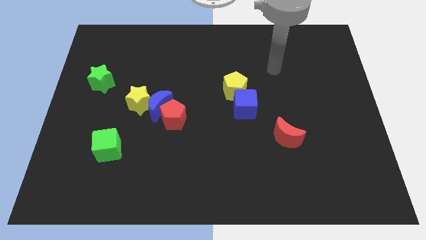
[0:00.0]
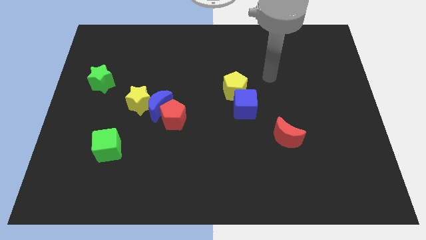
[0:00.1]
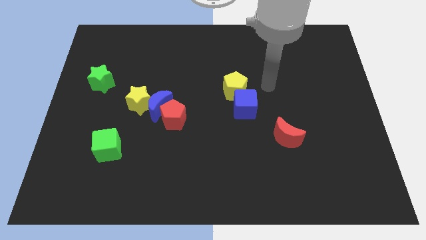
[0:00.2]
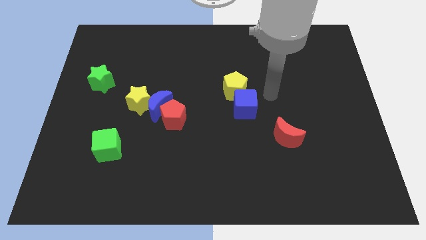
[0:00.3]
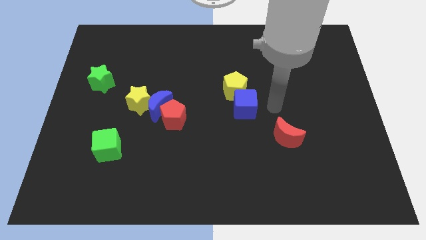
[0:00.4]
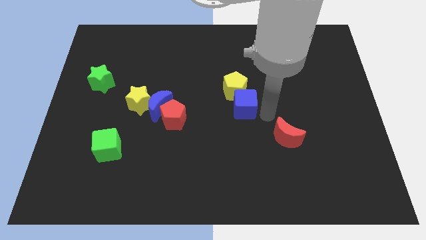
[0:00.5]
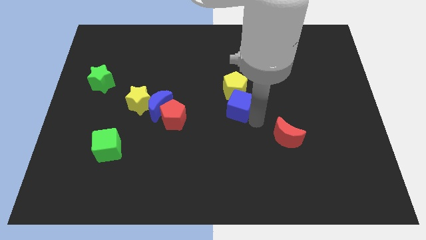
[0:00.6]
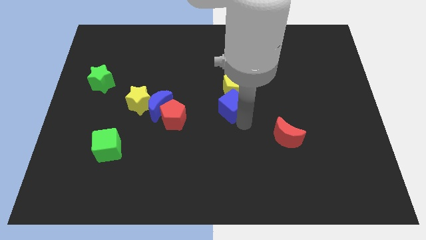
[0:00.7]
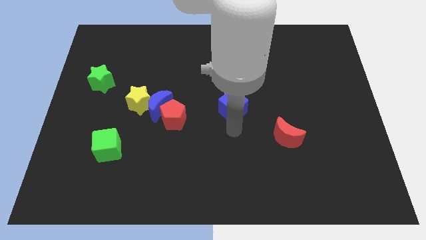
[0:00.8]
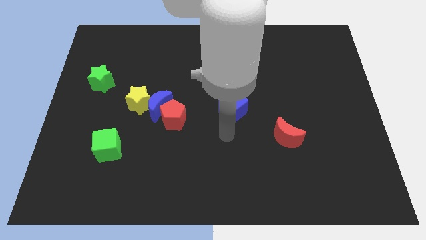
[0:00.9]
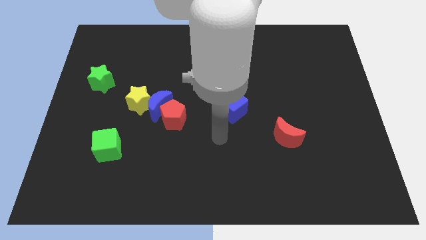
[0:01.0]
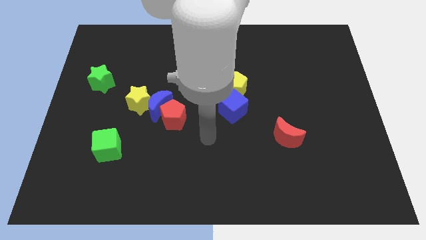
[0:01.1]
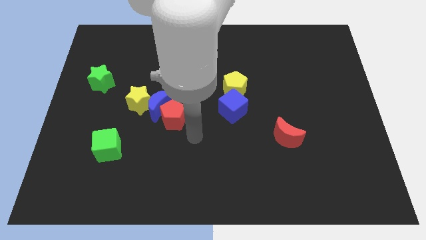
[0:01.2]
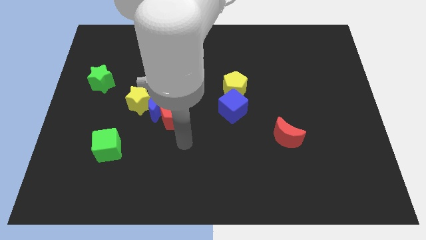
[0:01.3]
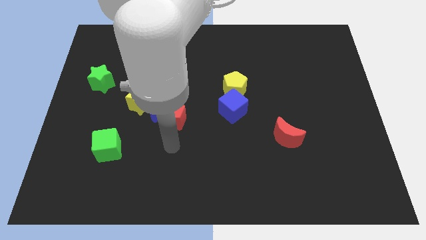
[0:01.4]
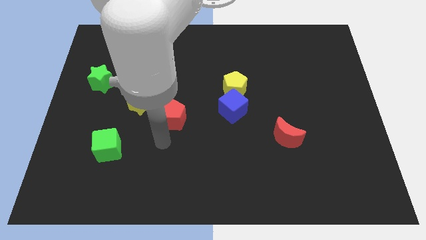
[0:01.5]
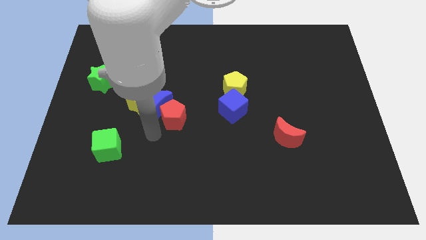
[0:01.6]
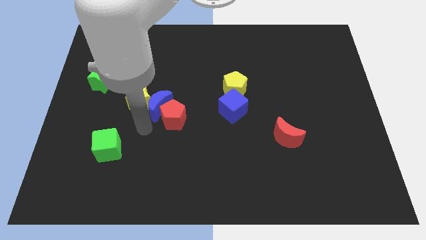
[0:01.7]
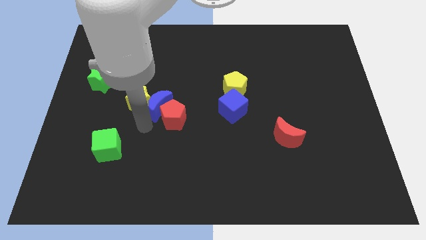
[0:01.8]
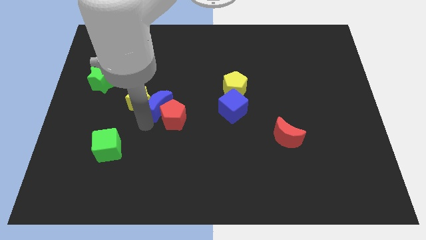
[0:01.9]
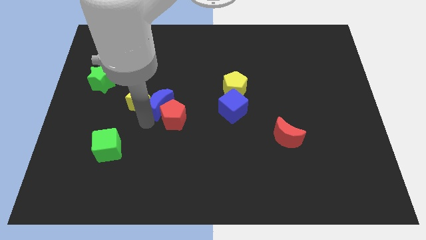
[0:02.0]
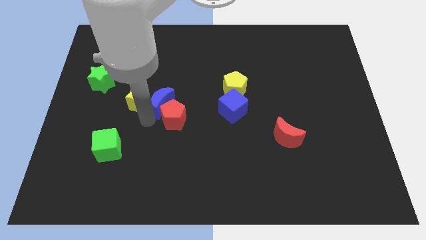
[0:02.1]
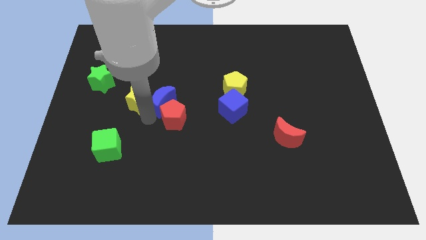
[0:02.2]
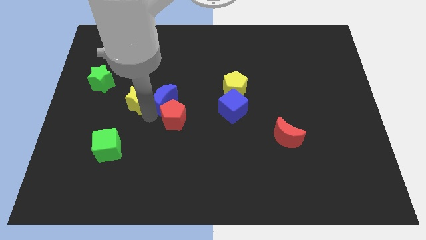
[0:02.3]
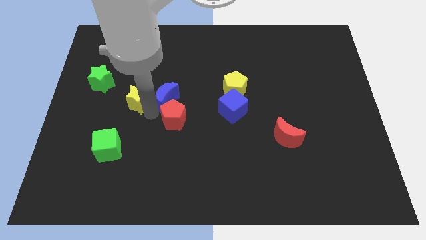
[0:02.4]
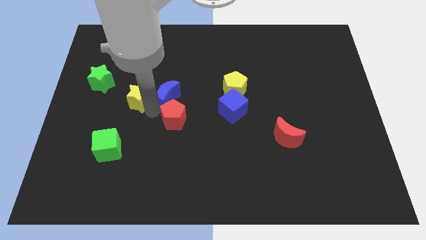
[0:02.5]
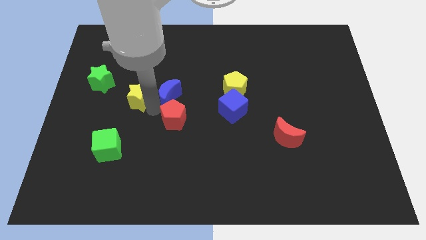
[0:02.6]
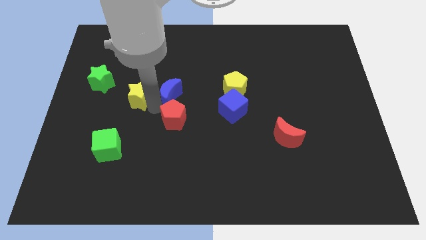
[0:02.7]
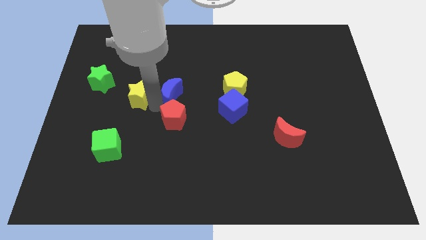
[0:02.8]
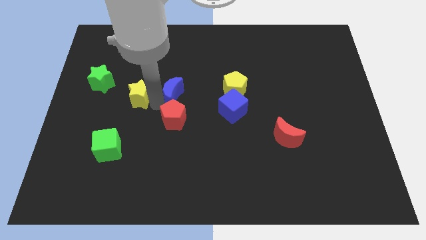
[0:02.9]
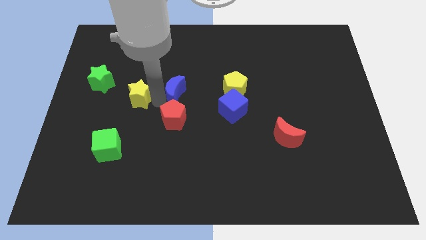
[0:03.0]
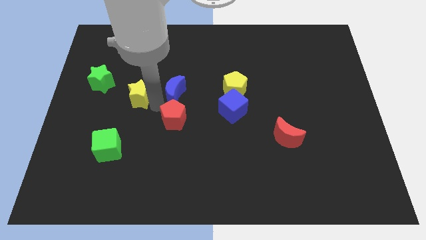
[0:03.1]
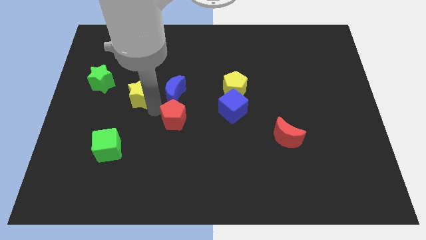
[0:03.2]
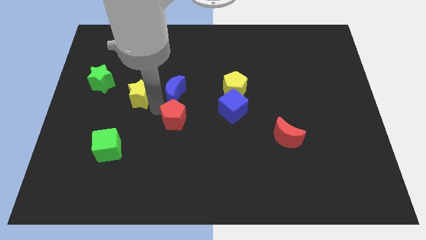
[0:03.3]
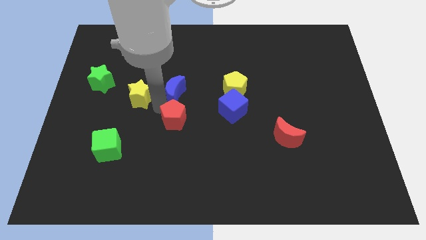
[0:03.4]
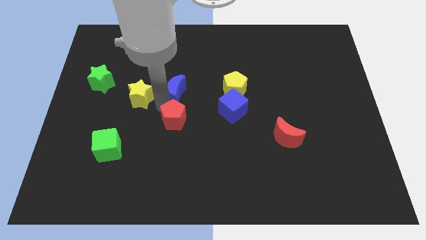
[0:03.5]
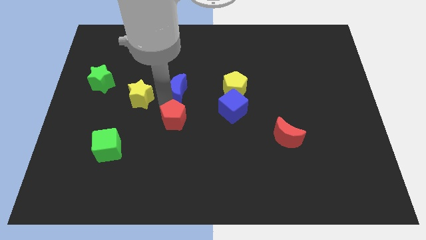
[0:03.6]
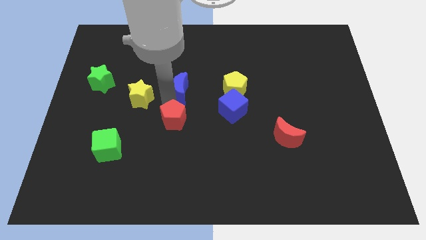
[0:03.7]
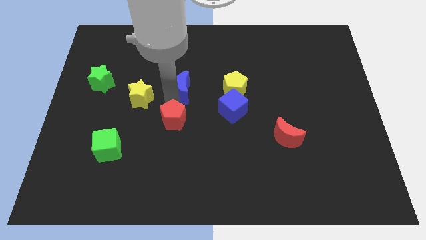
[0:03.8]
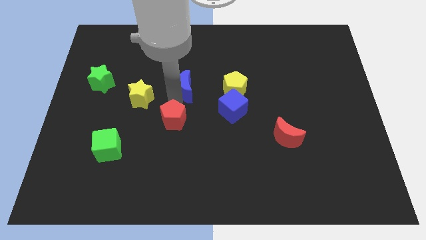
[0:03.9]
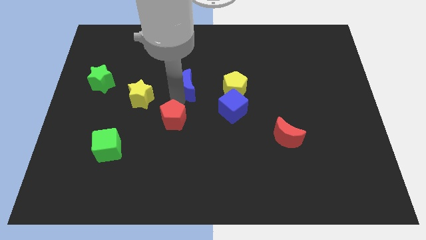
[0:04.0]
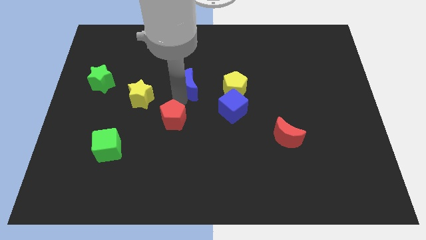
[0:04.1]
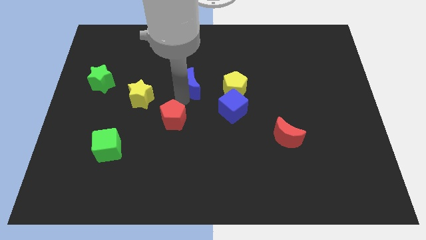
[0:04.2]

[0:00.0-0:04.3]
pull the blue moon apart from the red pentagon and yellow star

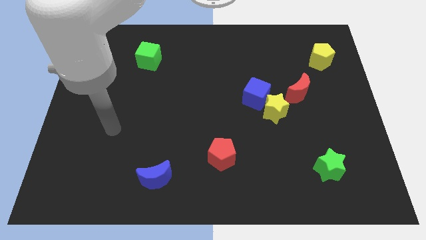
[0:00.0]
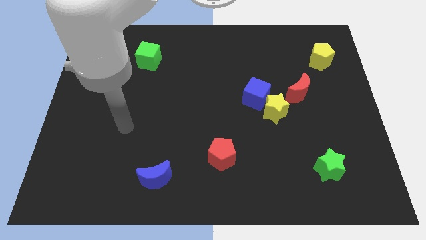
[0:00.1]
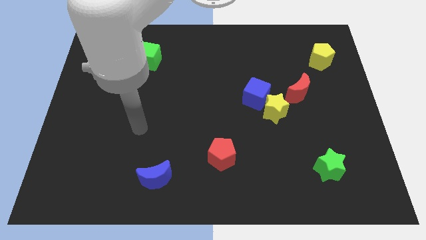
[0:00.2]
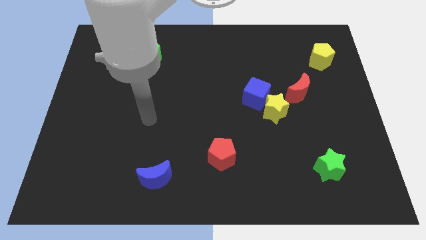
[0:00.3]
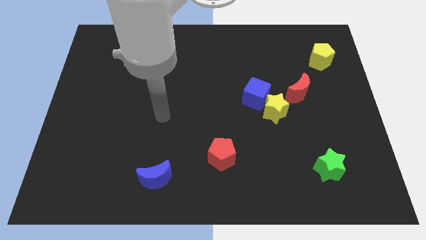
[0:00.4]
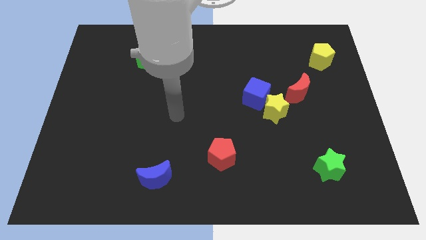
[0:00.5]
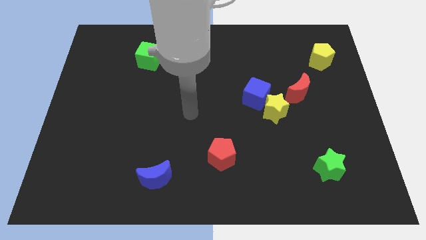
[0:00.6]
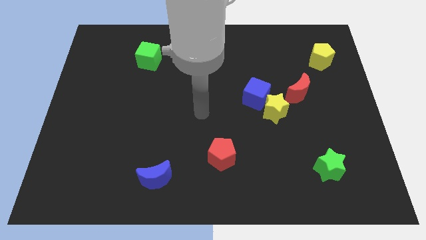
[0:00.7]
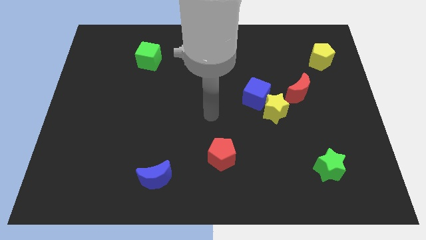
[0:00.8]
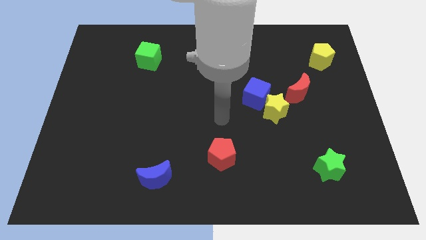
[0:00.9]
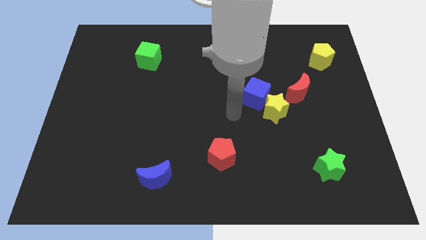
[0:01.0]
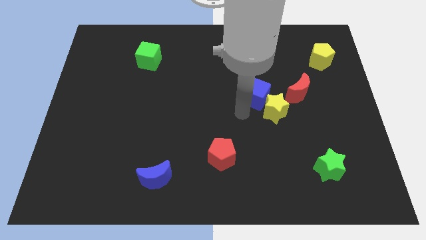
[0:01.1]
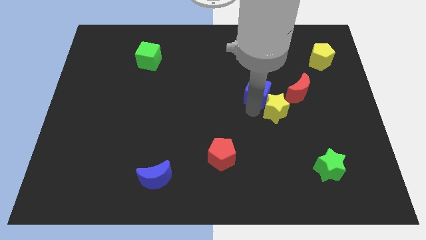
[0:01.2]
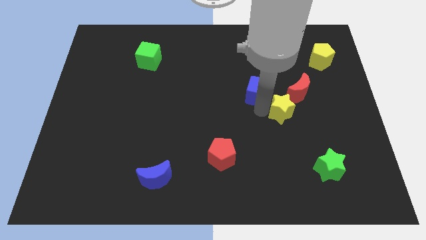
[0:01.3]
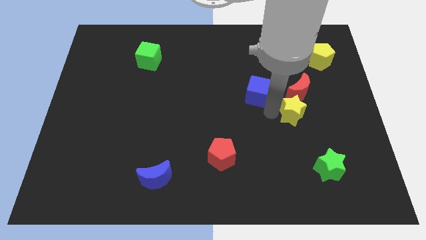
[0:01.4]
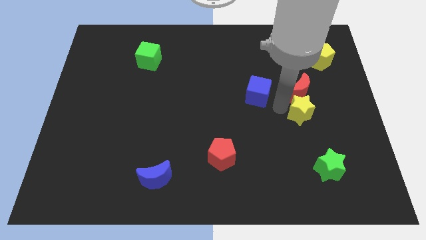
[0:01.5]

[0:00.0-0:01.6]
pull the blue cube apart from the yellow star

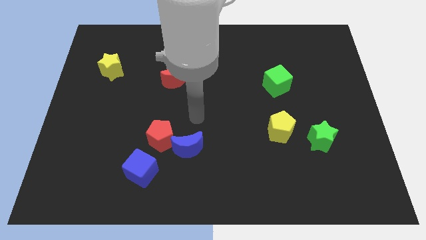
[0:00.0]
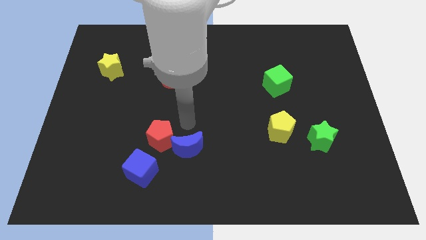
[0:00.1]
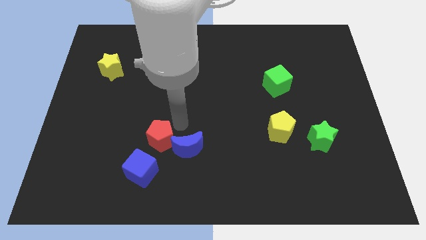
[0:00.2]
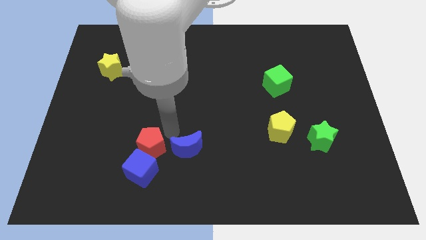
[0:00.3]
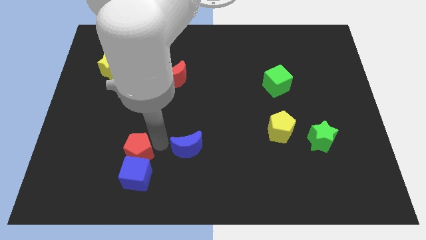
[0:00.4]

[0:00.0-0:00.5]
pull the blue moon apart from the red pentagon

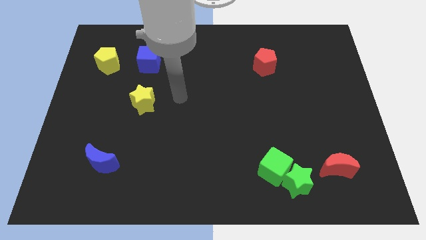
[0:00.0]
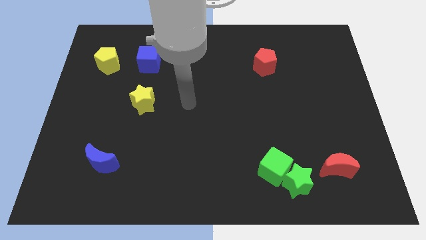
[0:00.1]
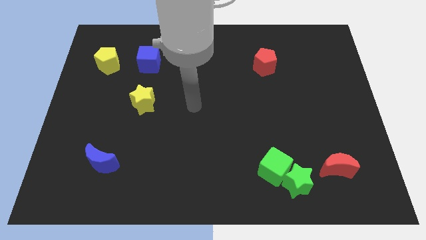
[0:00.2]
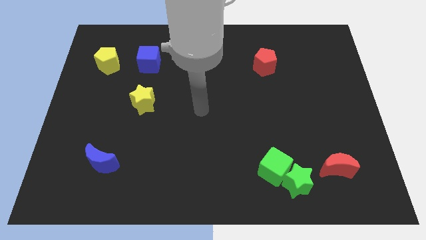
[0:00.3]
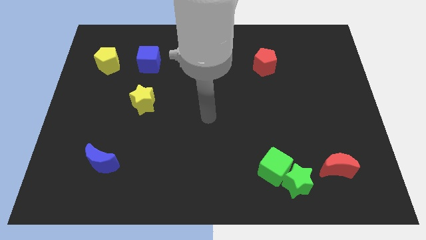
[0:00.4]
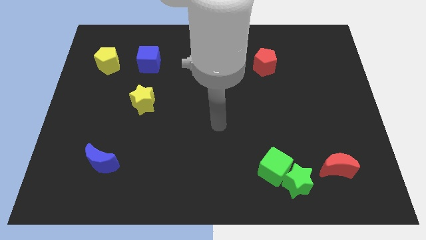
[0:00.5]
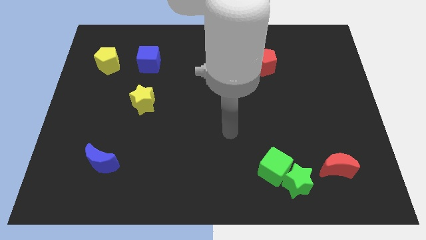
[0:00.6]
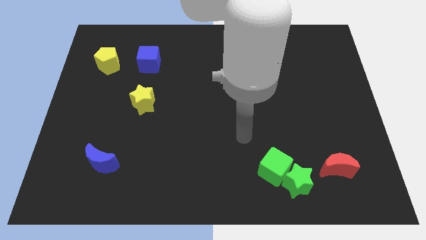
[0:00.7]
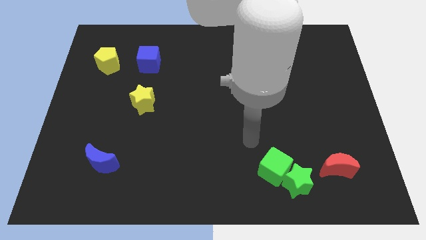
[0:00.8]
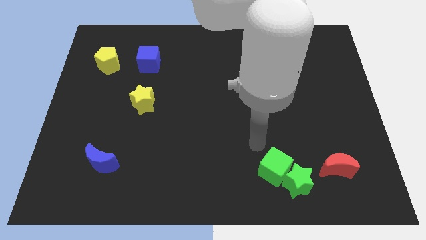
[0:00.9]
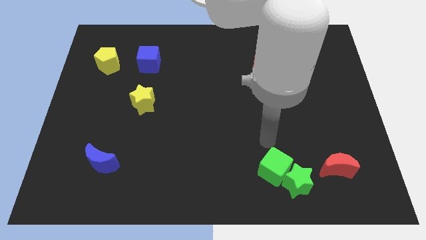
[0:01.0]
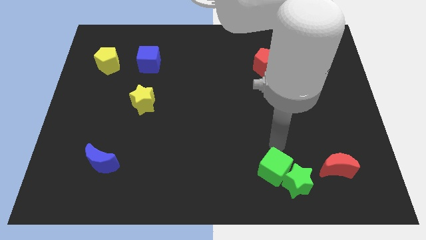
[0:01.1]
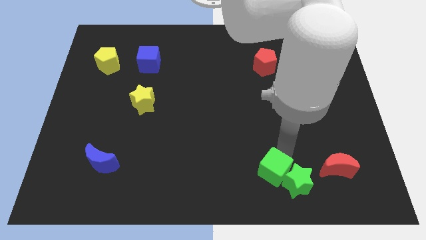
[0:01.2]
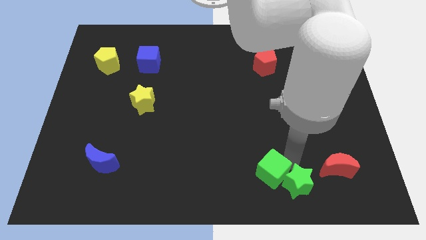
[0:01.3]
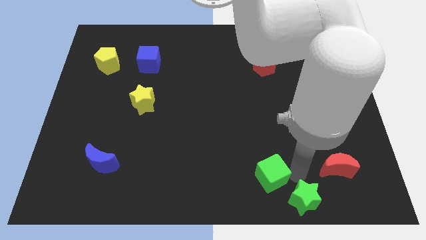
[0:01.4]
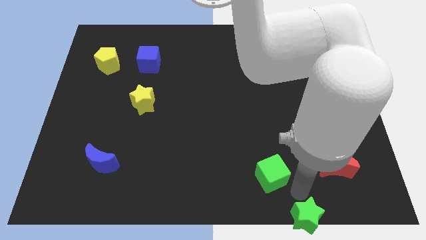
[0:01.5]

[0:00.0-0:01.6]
move the green cube away from the green star

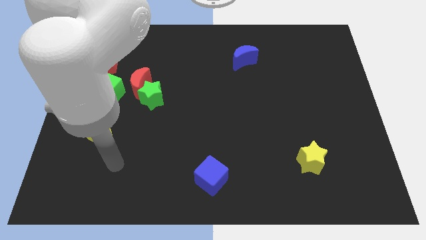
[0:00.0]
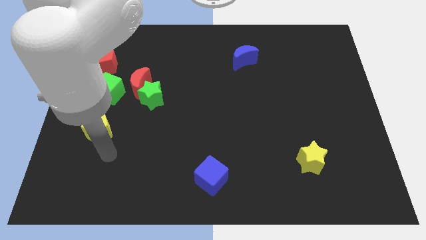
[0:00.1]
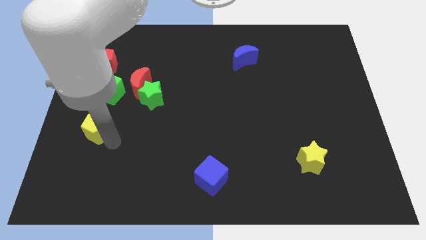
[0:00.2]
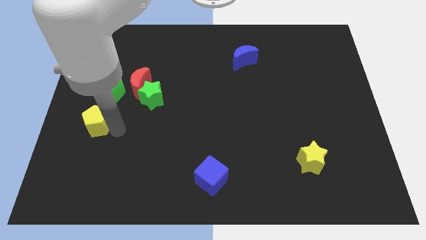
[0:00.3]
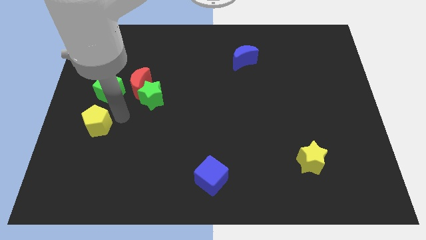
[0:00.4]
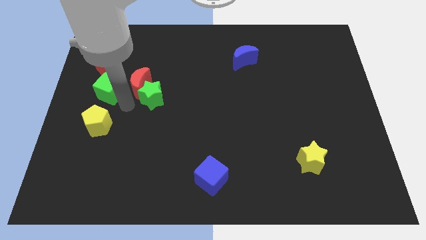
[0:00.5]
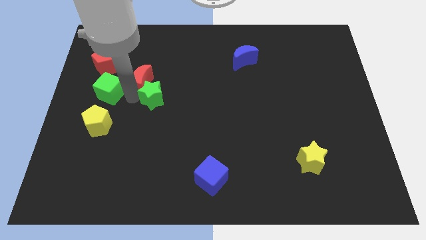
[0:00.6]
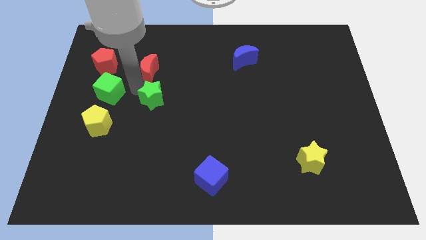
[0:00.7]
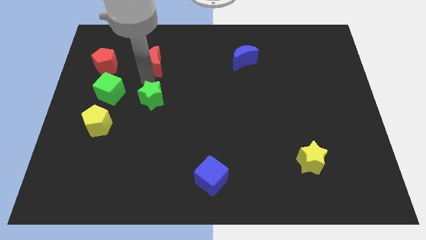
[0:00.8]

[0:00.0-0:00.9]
separate the green star from the red moon

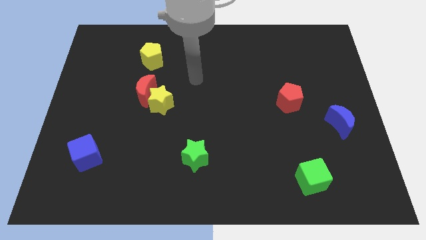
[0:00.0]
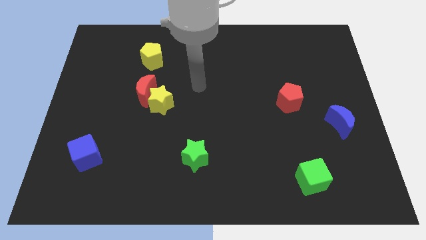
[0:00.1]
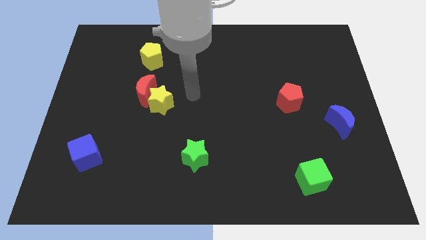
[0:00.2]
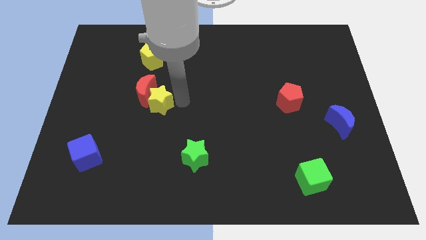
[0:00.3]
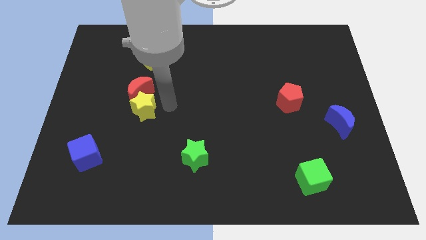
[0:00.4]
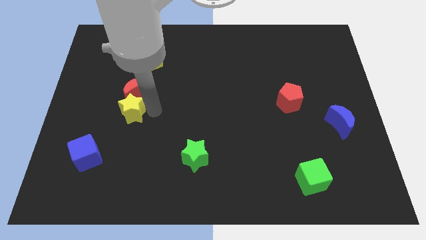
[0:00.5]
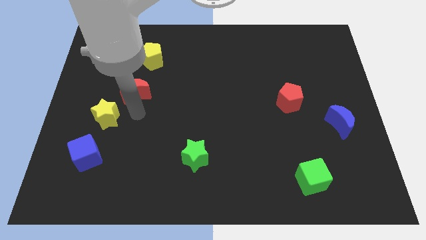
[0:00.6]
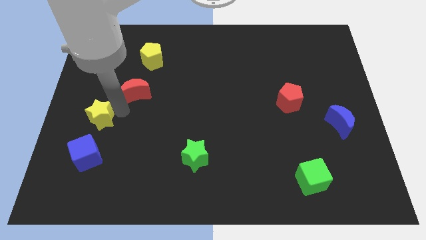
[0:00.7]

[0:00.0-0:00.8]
separate the red moon from the yellow star
